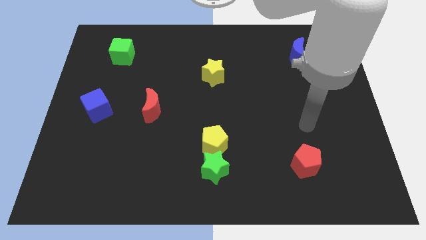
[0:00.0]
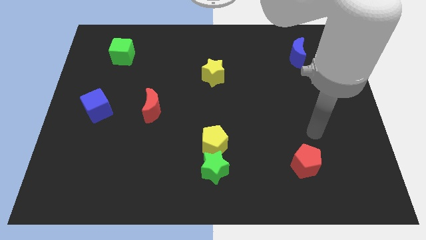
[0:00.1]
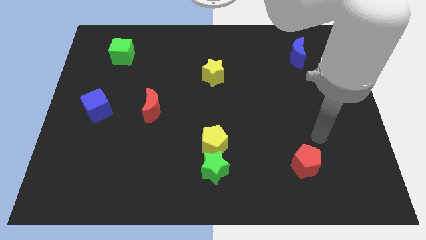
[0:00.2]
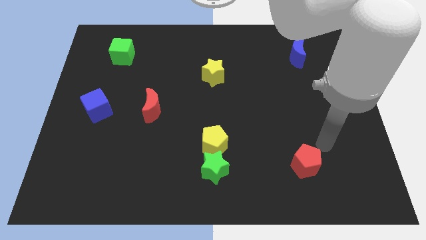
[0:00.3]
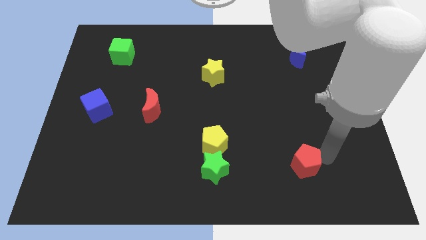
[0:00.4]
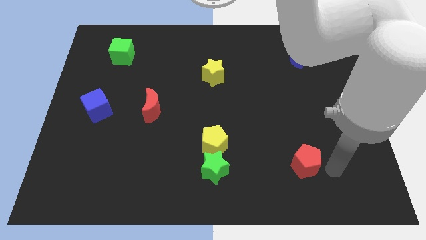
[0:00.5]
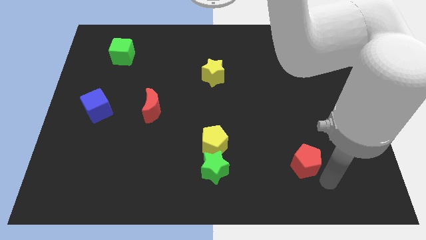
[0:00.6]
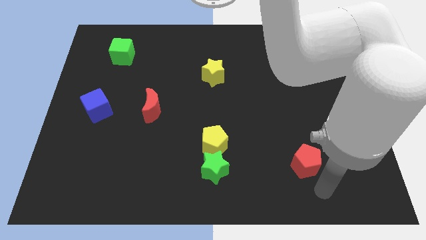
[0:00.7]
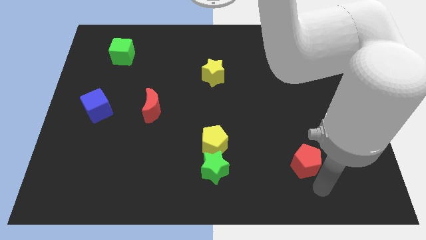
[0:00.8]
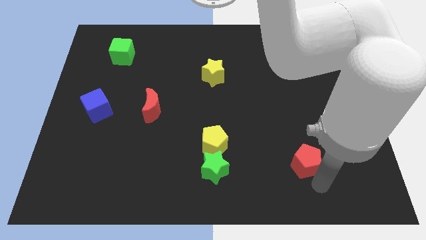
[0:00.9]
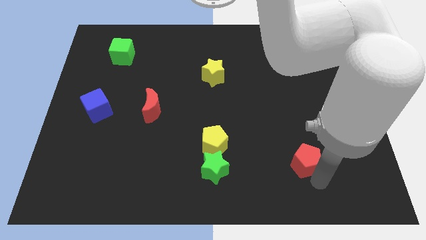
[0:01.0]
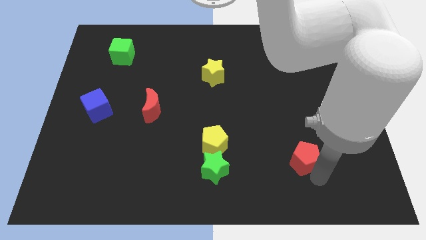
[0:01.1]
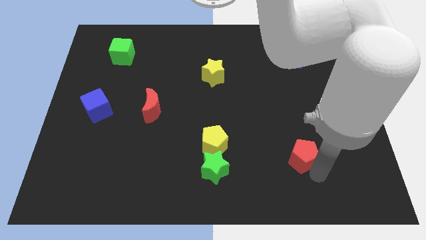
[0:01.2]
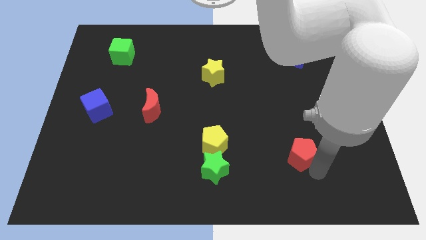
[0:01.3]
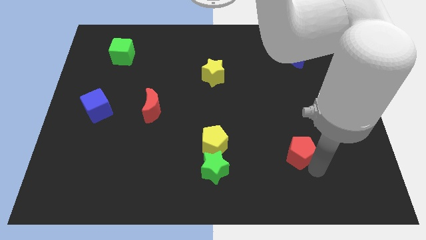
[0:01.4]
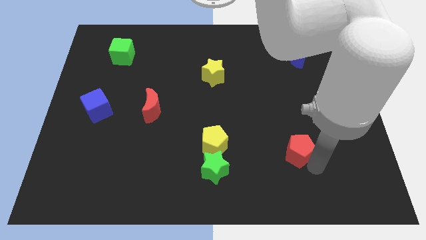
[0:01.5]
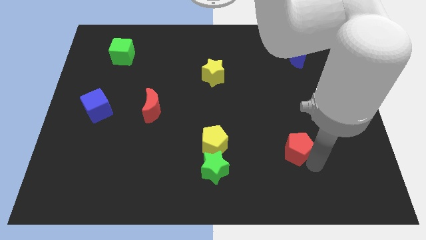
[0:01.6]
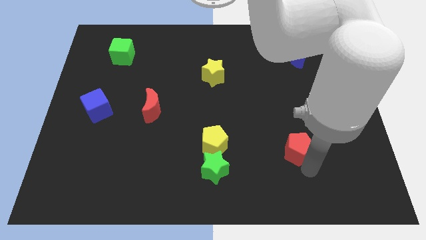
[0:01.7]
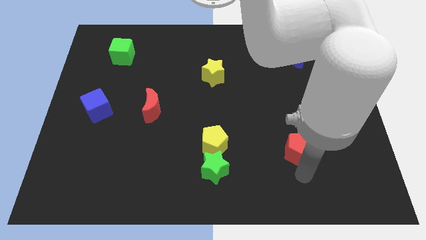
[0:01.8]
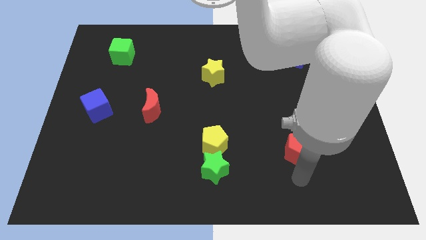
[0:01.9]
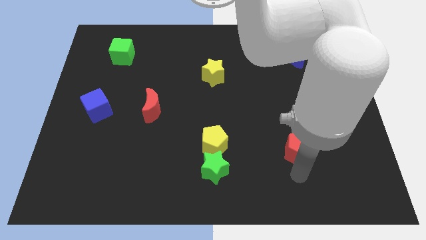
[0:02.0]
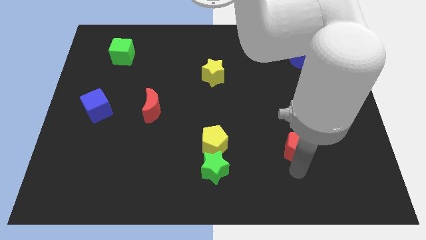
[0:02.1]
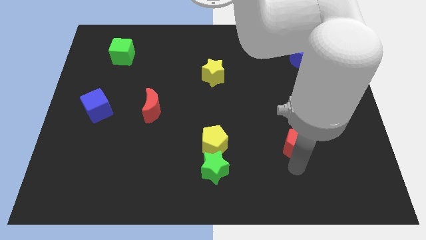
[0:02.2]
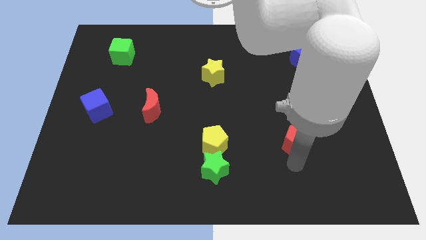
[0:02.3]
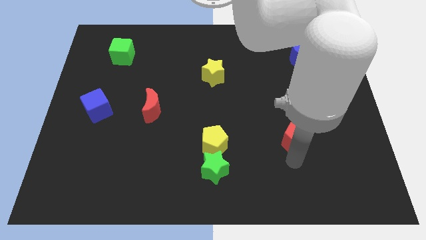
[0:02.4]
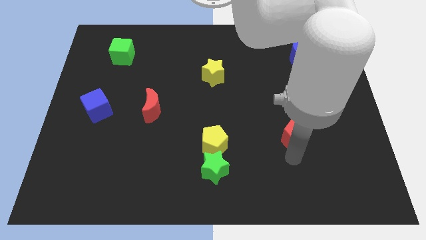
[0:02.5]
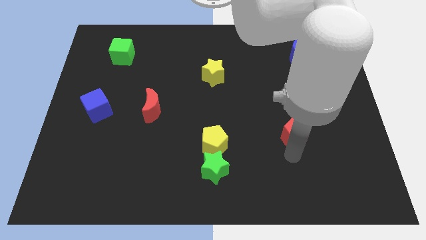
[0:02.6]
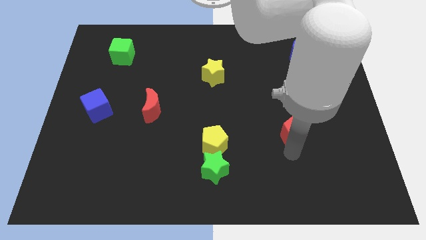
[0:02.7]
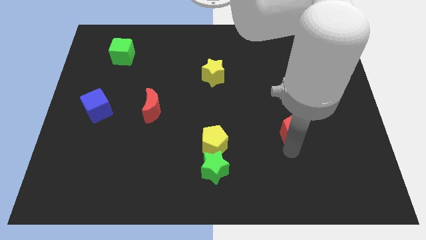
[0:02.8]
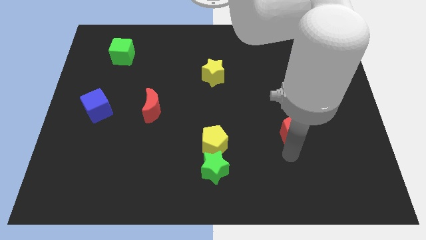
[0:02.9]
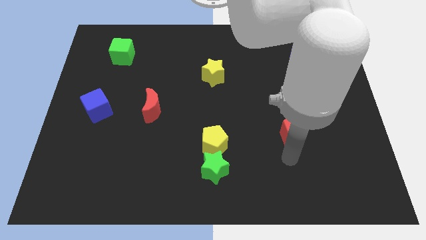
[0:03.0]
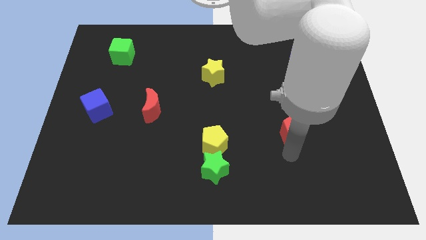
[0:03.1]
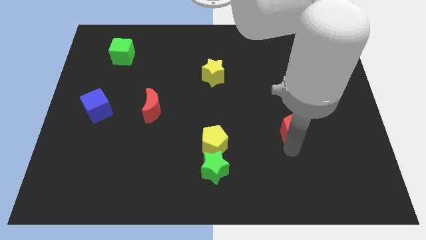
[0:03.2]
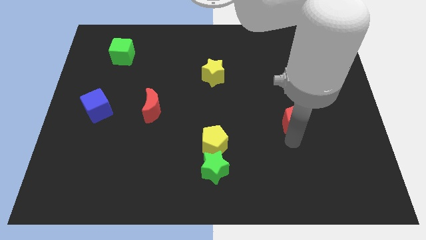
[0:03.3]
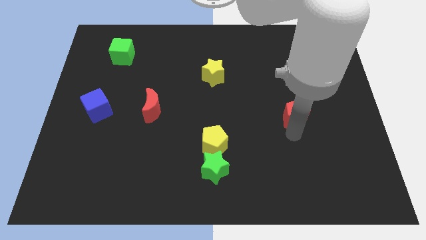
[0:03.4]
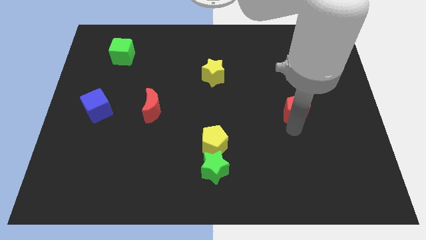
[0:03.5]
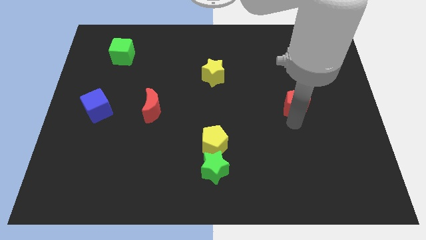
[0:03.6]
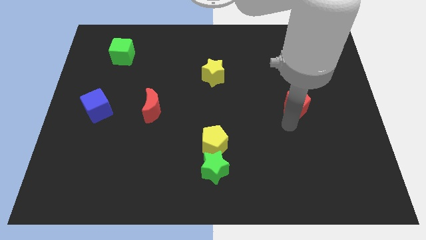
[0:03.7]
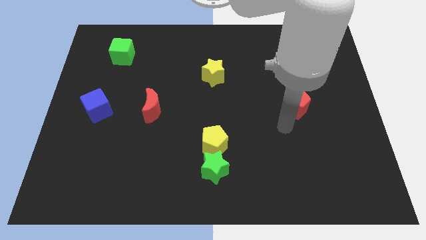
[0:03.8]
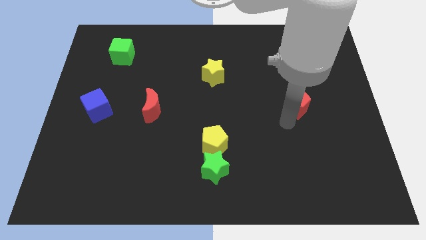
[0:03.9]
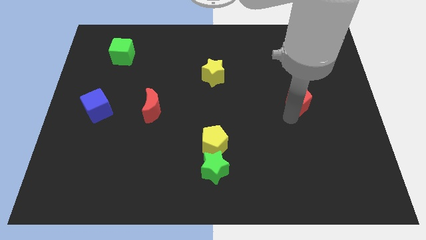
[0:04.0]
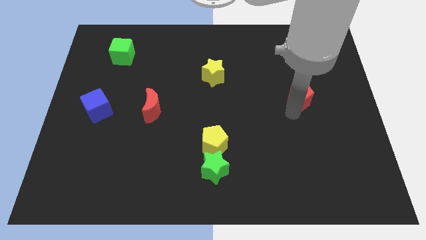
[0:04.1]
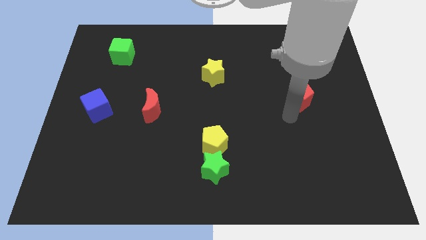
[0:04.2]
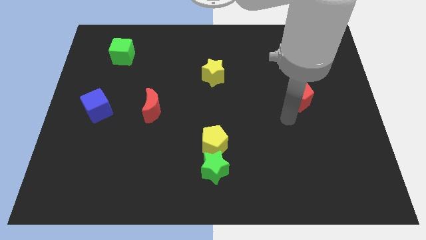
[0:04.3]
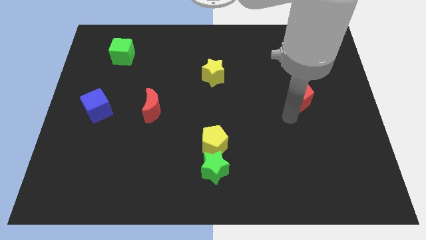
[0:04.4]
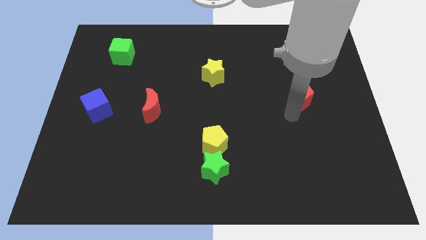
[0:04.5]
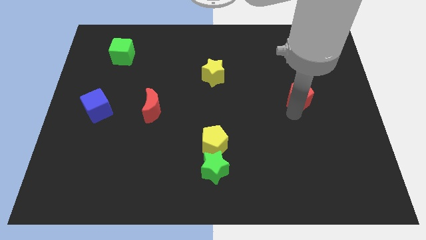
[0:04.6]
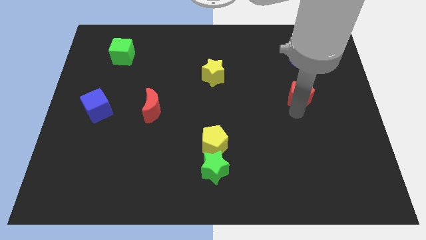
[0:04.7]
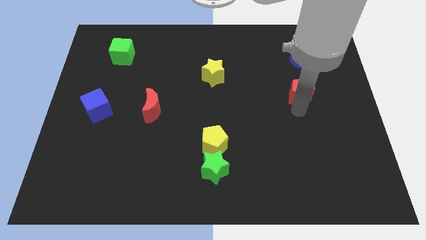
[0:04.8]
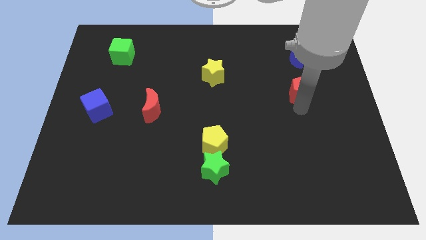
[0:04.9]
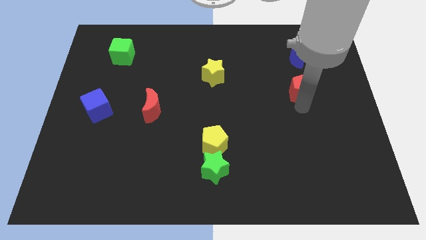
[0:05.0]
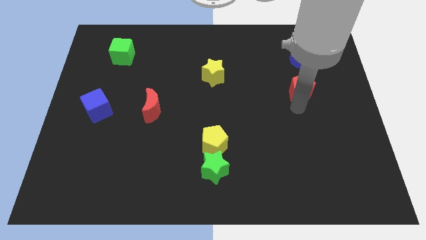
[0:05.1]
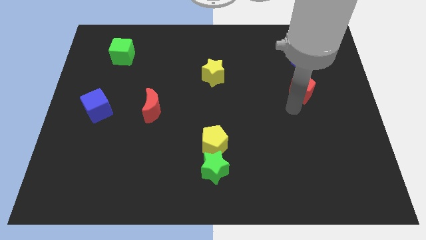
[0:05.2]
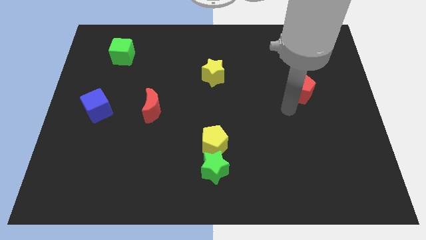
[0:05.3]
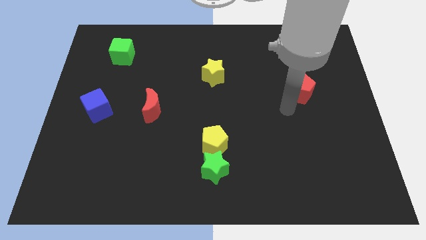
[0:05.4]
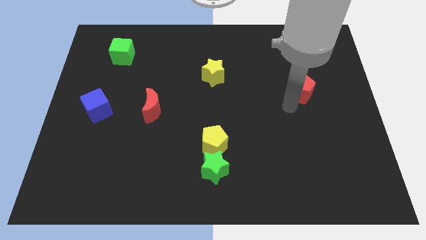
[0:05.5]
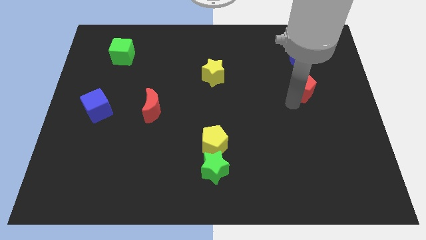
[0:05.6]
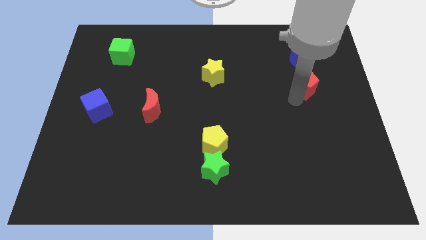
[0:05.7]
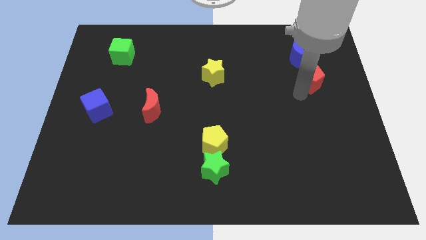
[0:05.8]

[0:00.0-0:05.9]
put the red pentagon diagonally down and to the right of the blue moon

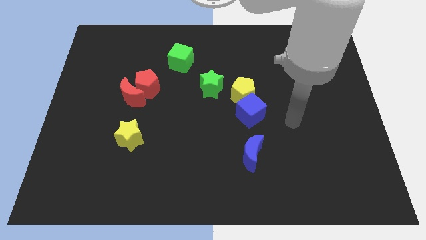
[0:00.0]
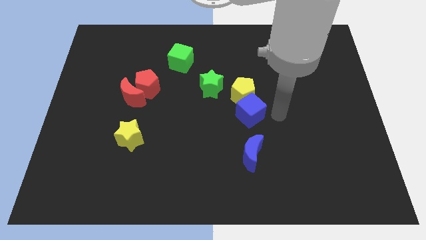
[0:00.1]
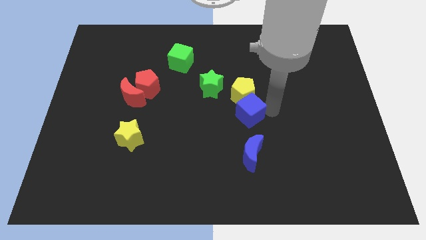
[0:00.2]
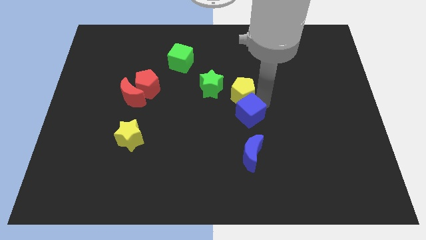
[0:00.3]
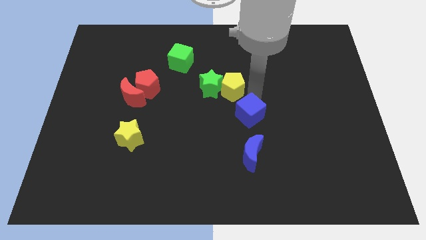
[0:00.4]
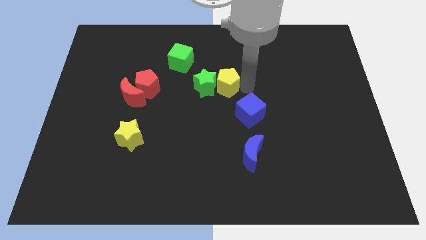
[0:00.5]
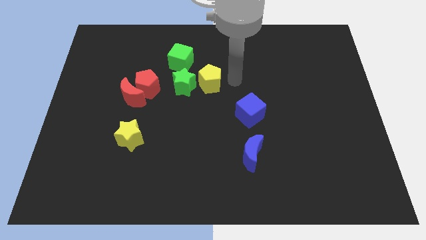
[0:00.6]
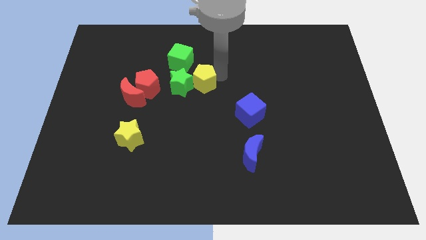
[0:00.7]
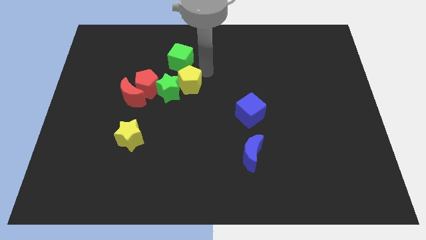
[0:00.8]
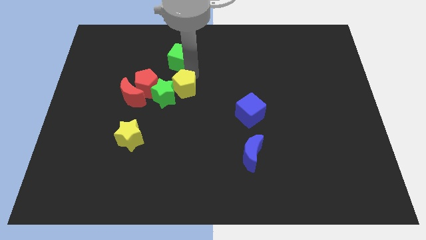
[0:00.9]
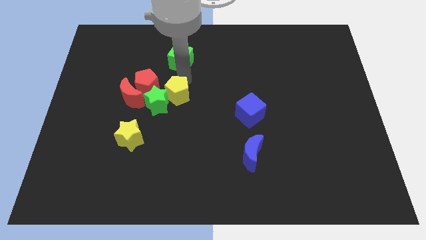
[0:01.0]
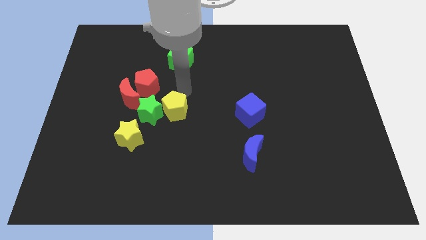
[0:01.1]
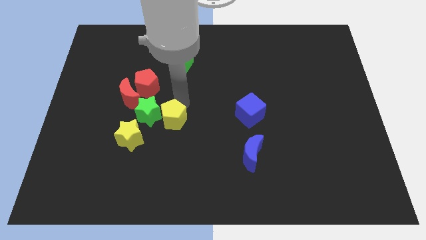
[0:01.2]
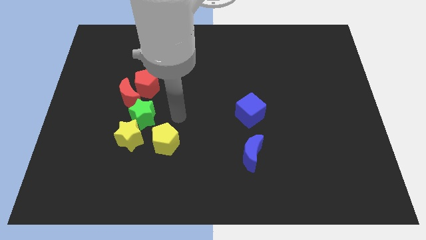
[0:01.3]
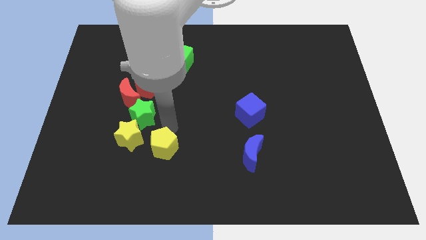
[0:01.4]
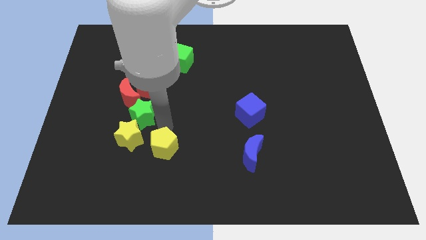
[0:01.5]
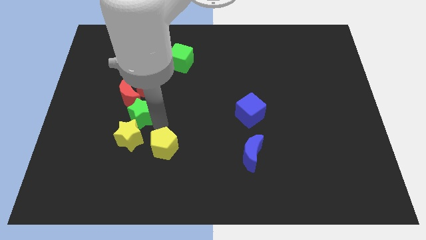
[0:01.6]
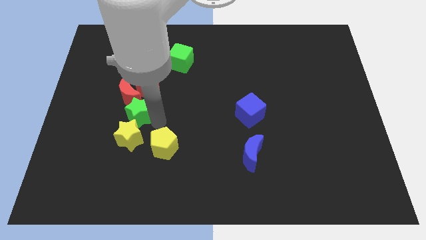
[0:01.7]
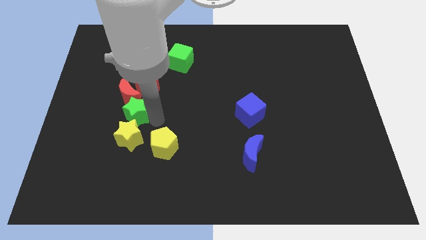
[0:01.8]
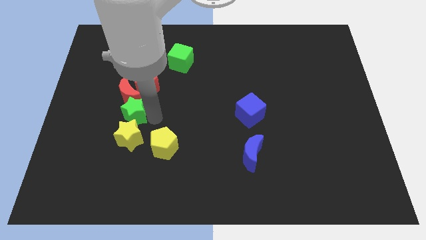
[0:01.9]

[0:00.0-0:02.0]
push the green star to the top left of the yellow star
